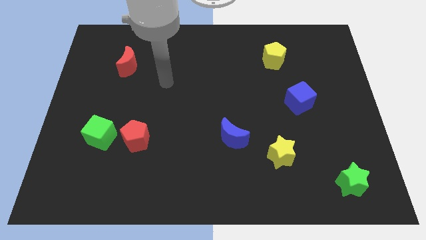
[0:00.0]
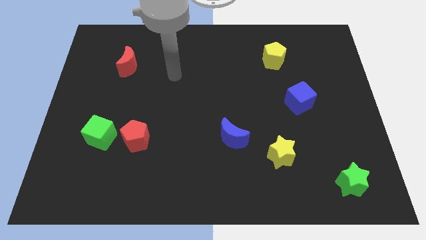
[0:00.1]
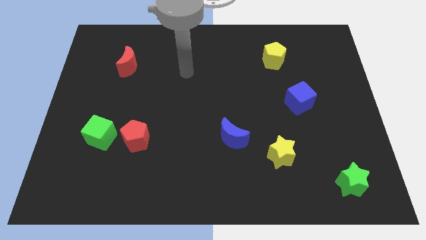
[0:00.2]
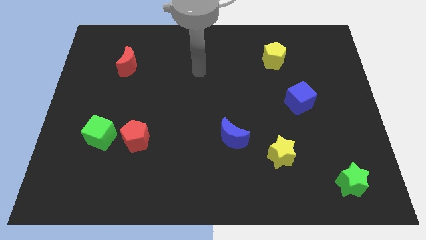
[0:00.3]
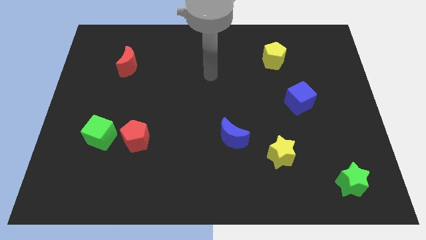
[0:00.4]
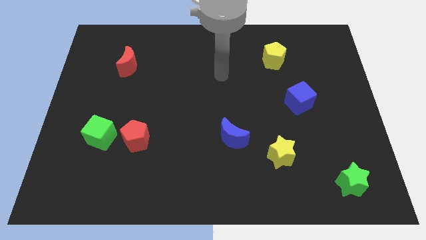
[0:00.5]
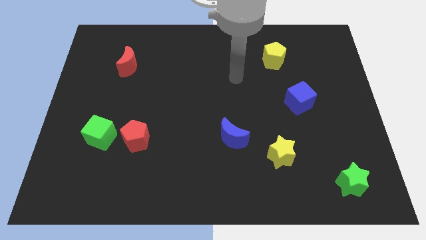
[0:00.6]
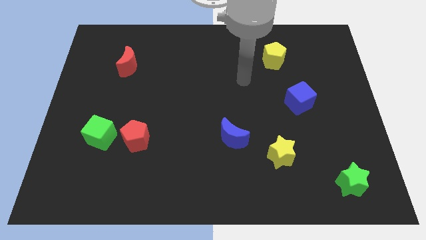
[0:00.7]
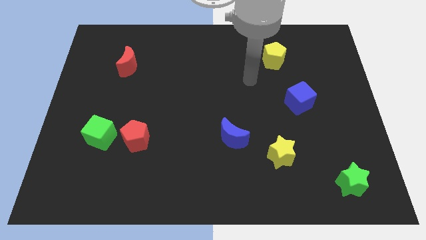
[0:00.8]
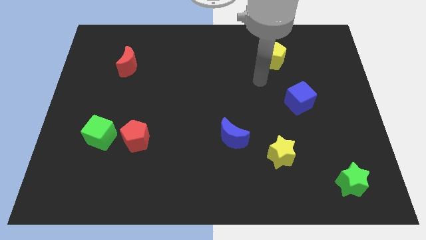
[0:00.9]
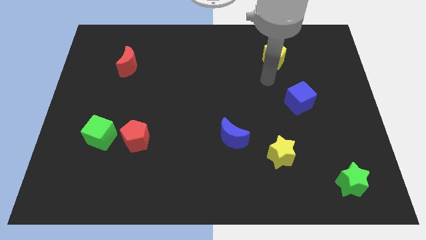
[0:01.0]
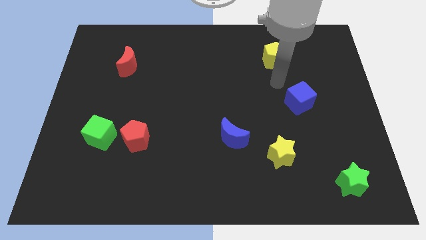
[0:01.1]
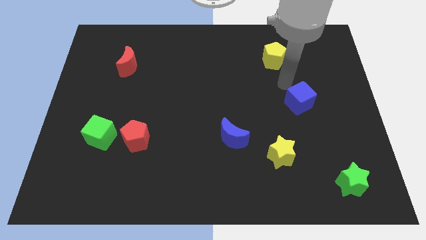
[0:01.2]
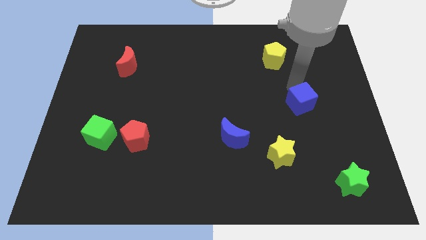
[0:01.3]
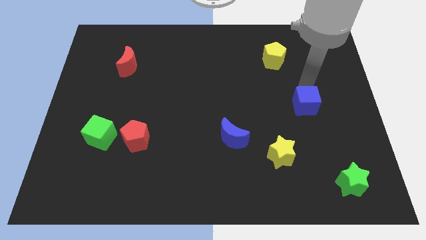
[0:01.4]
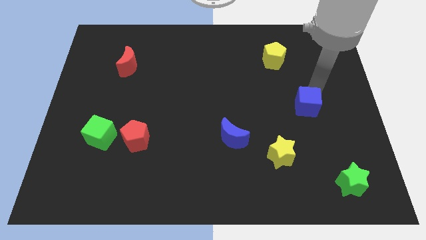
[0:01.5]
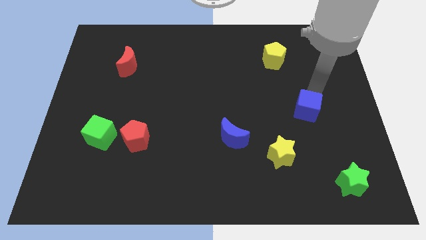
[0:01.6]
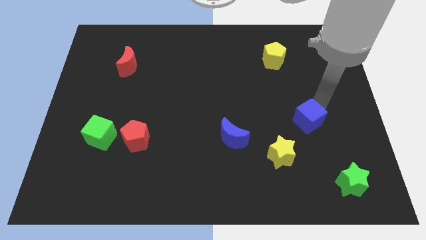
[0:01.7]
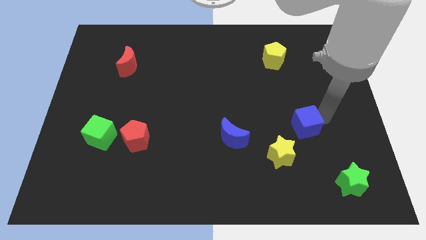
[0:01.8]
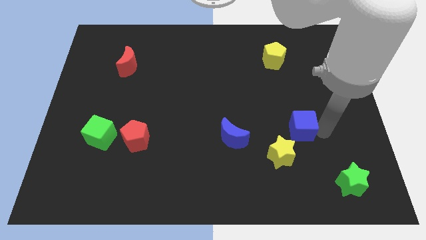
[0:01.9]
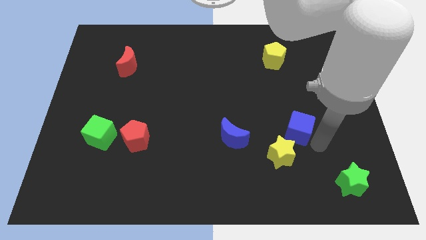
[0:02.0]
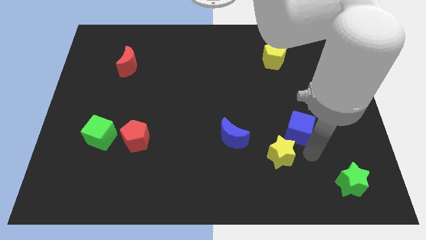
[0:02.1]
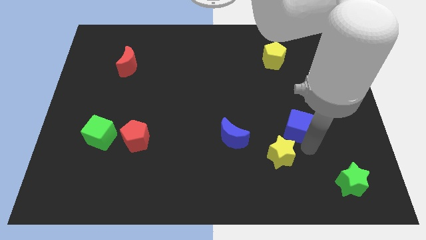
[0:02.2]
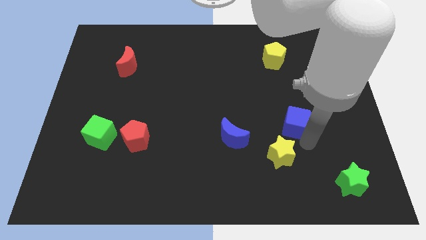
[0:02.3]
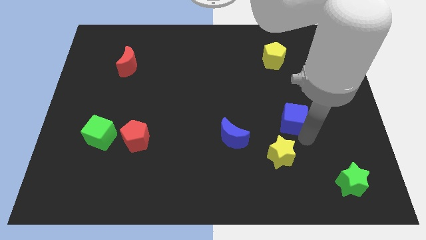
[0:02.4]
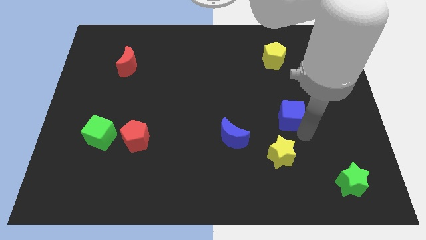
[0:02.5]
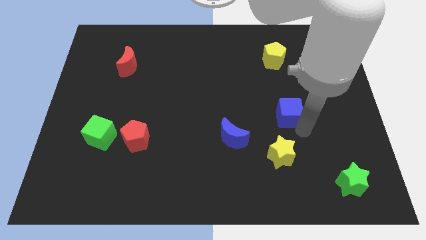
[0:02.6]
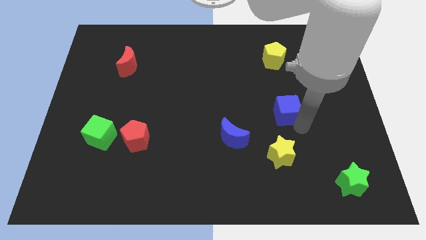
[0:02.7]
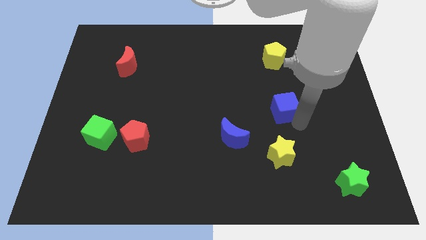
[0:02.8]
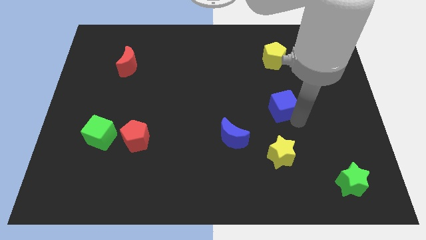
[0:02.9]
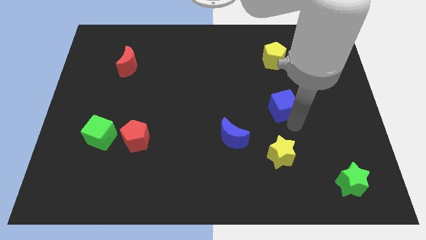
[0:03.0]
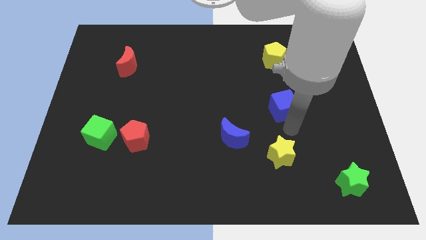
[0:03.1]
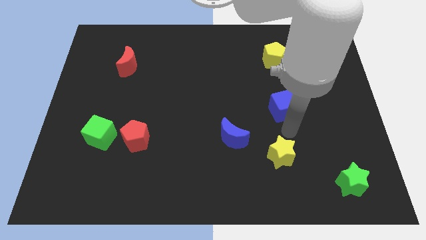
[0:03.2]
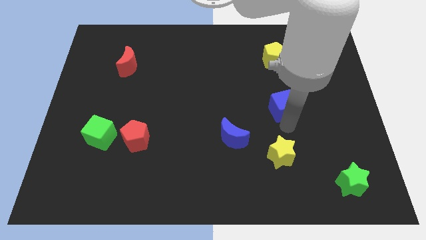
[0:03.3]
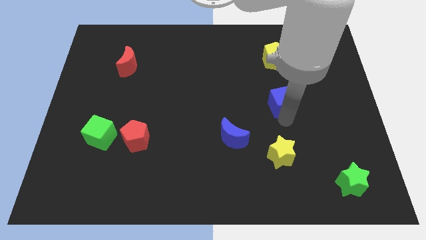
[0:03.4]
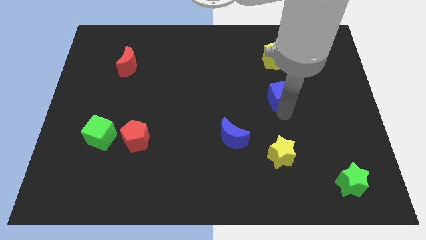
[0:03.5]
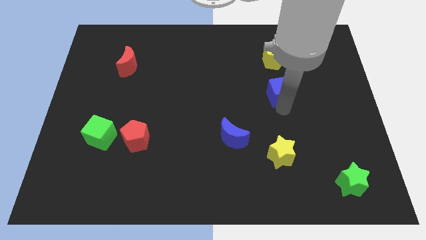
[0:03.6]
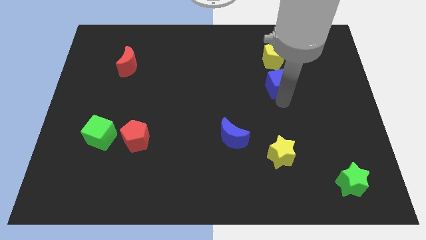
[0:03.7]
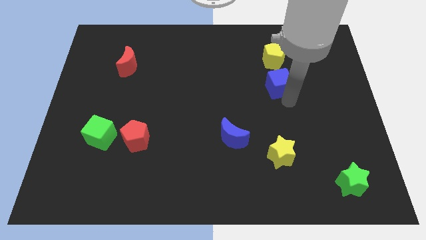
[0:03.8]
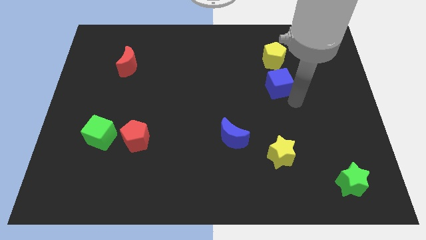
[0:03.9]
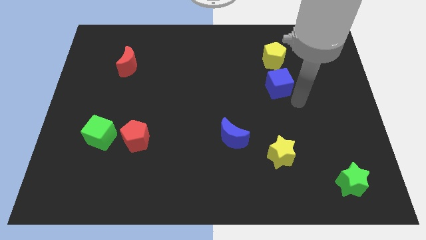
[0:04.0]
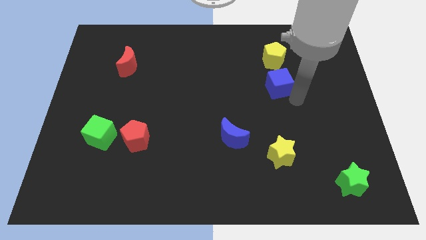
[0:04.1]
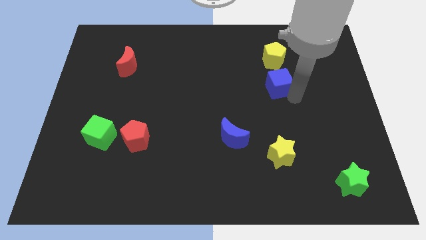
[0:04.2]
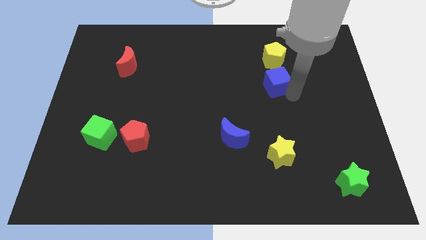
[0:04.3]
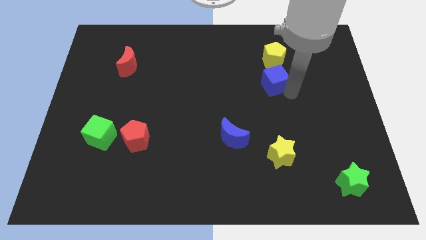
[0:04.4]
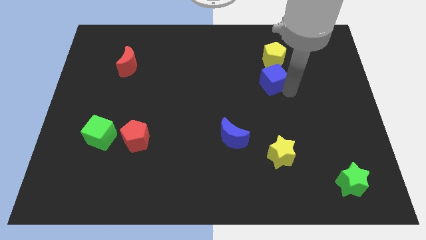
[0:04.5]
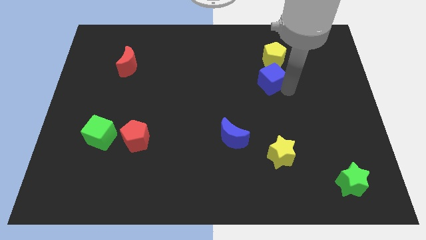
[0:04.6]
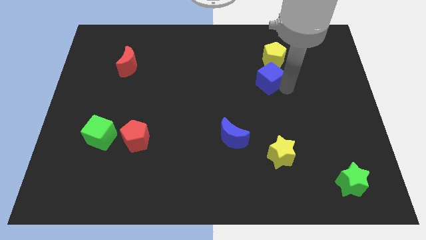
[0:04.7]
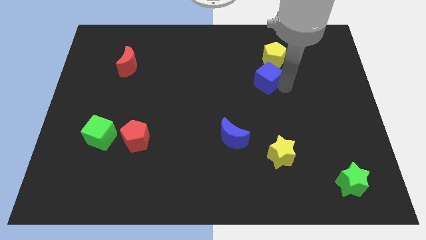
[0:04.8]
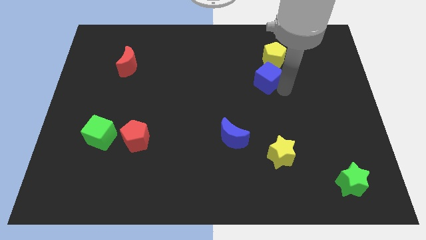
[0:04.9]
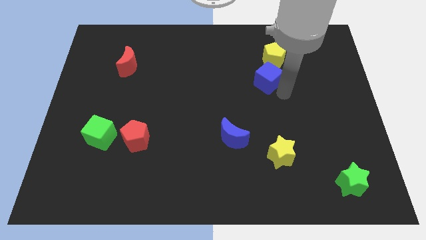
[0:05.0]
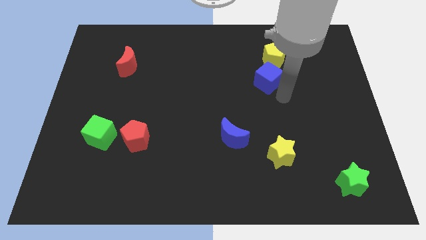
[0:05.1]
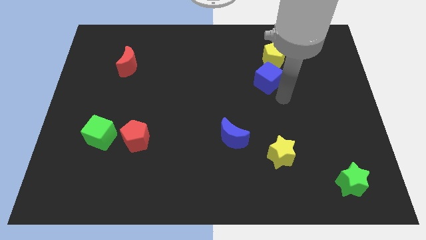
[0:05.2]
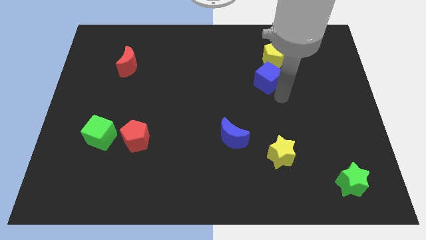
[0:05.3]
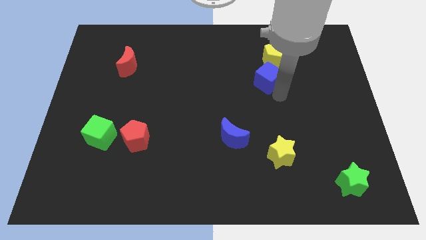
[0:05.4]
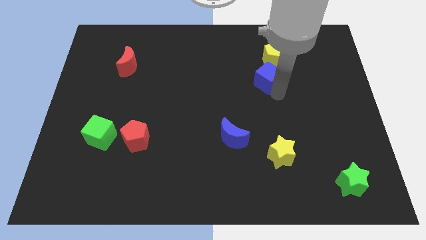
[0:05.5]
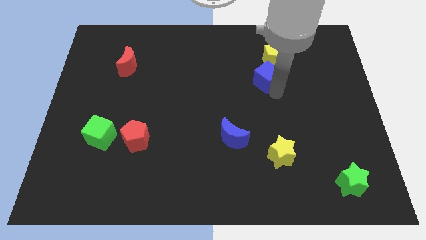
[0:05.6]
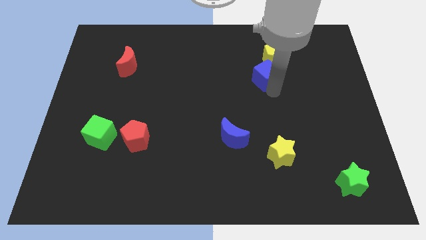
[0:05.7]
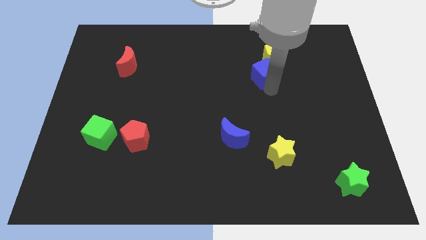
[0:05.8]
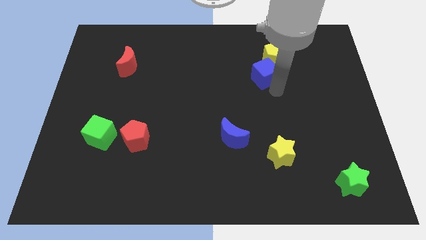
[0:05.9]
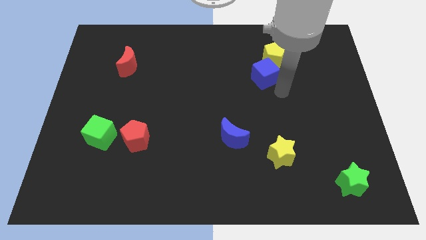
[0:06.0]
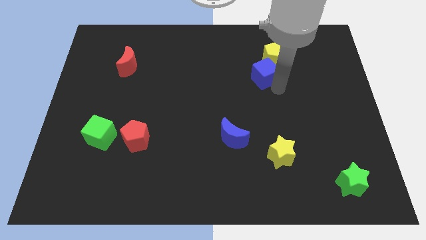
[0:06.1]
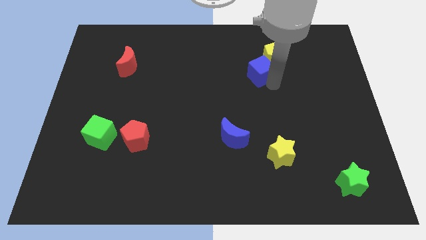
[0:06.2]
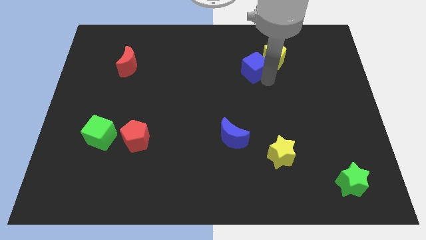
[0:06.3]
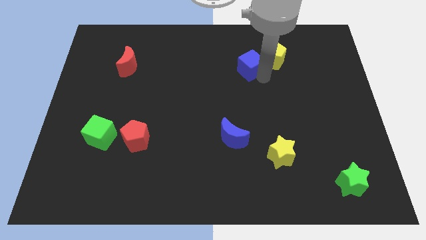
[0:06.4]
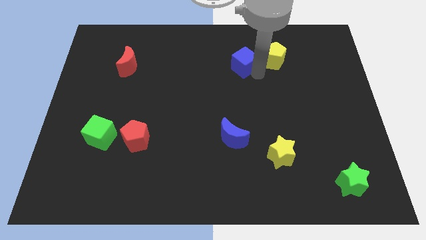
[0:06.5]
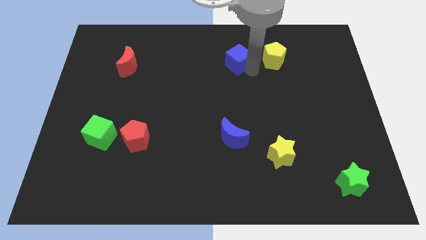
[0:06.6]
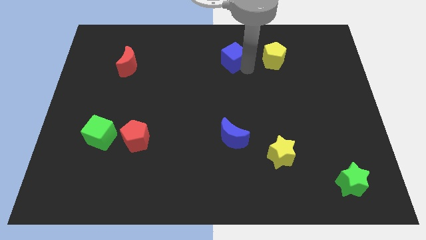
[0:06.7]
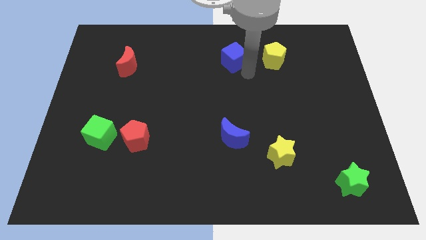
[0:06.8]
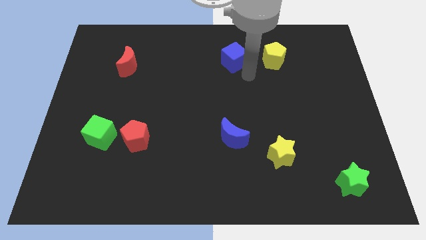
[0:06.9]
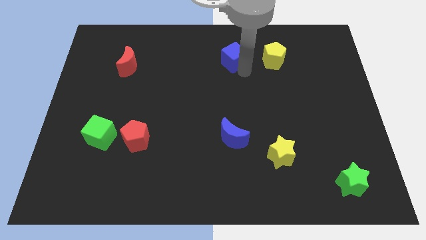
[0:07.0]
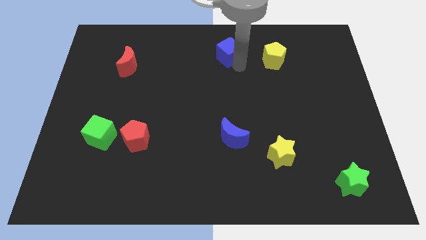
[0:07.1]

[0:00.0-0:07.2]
push the blue cube to the towards your base
